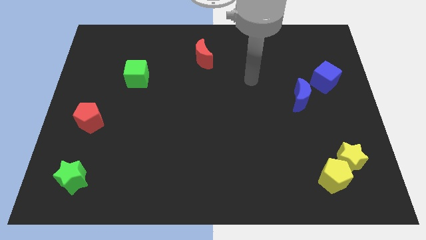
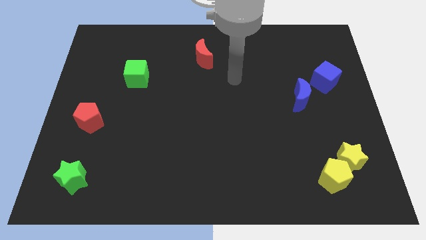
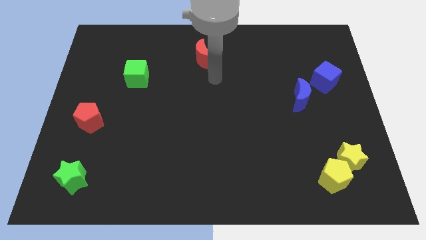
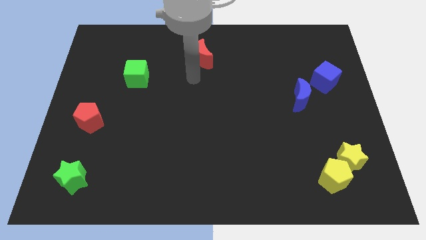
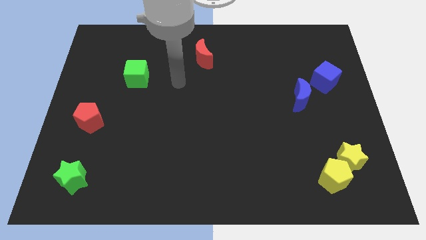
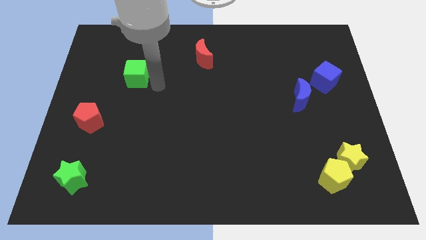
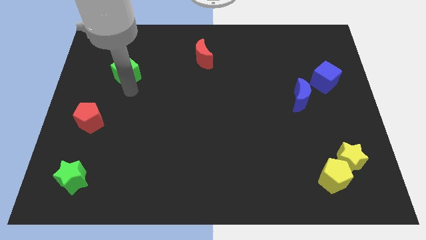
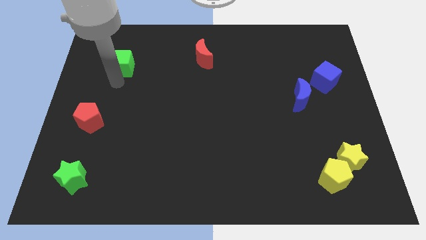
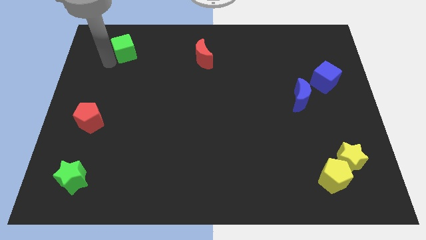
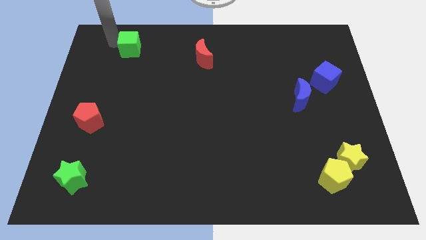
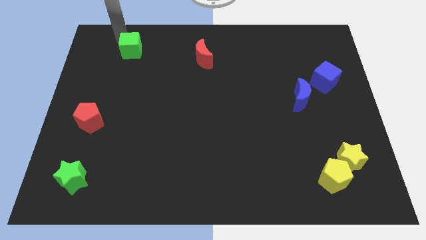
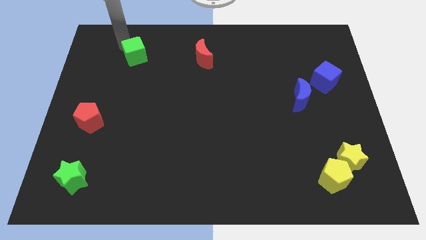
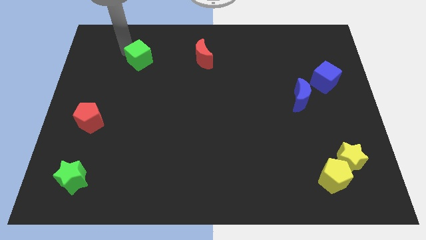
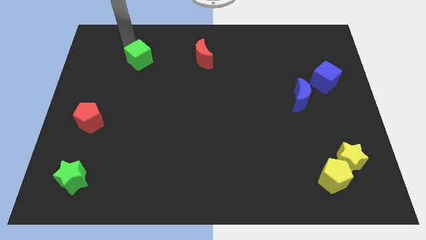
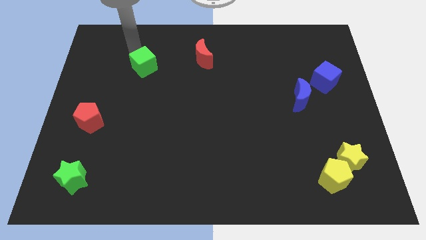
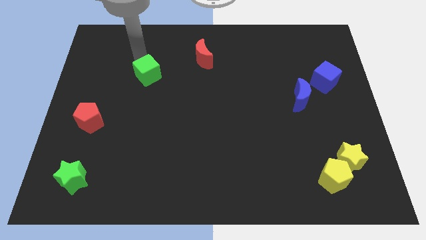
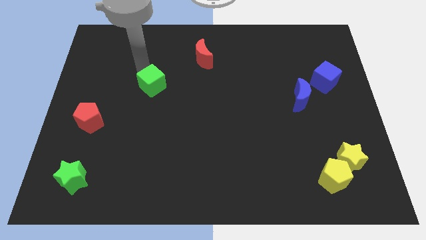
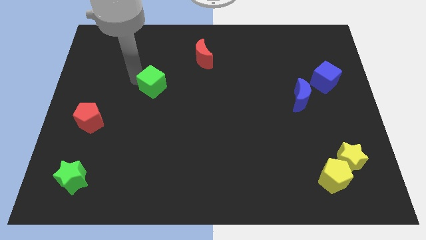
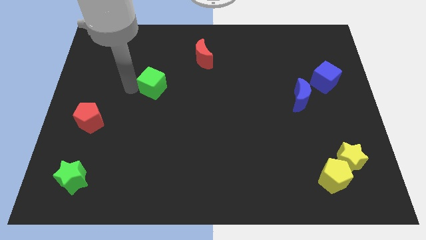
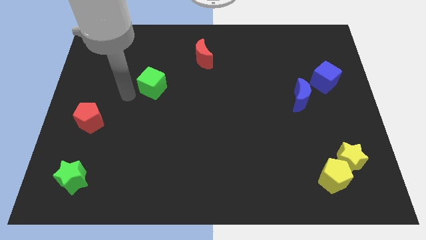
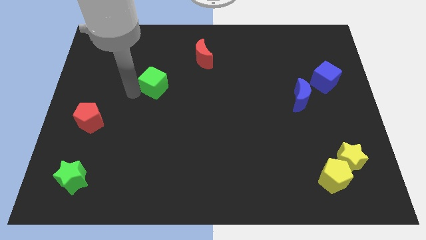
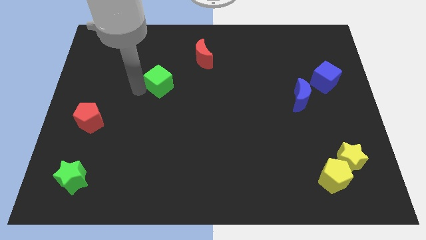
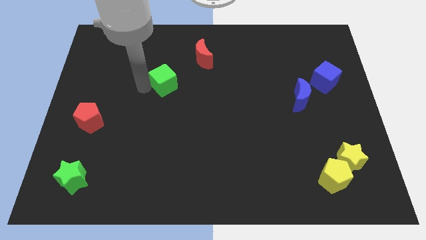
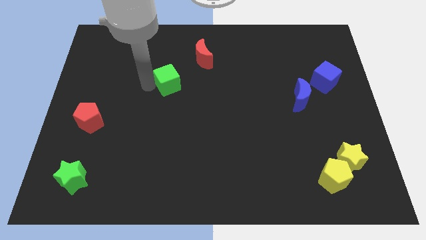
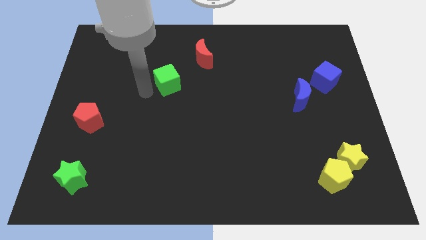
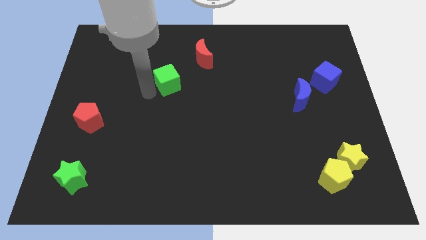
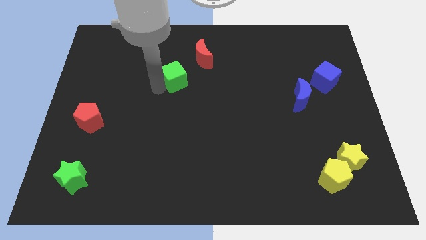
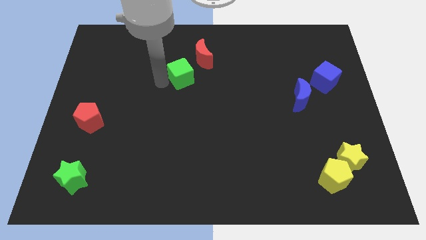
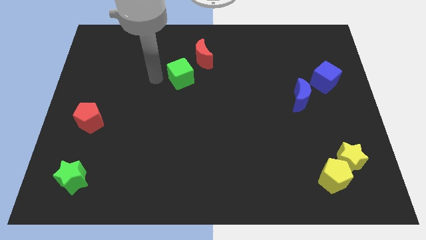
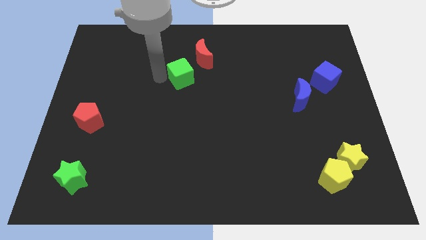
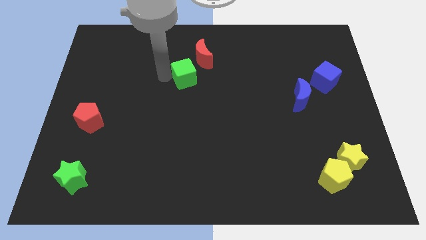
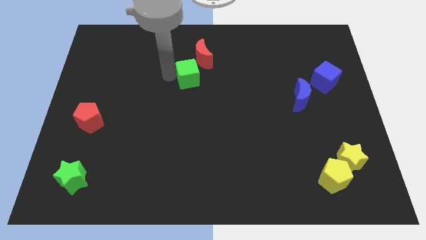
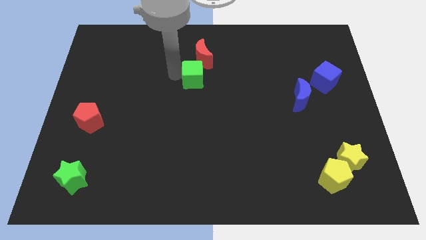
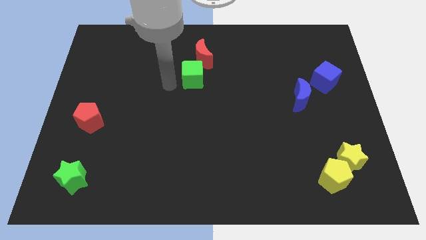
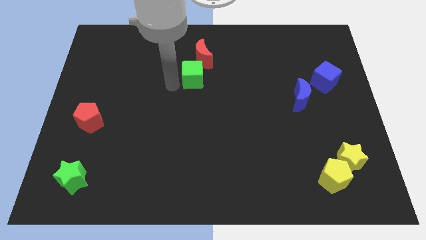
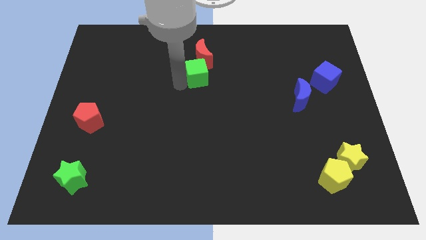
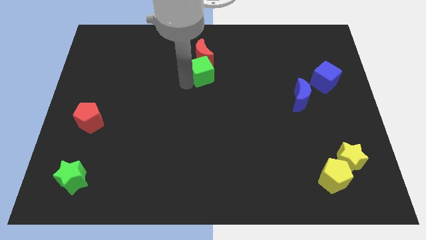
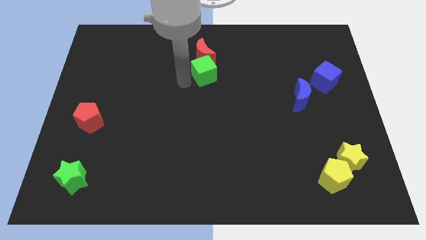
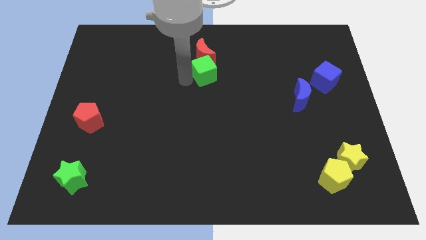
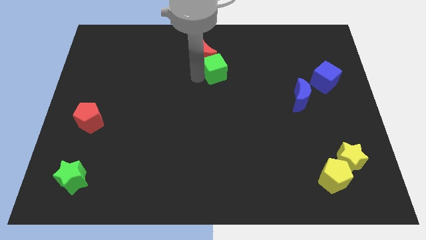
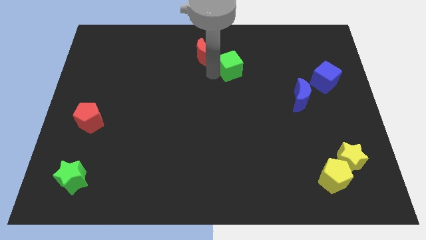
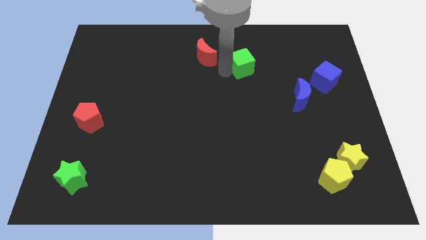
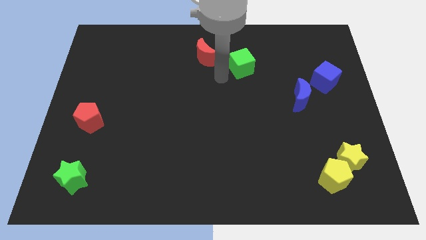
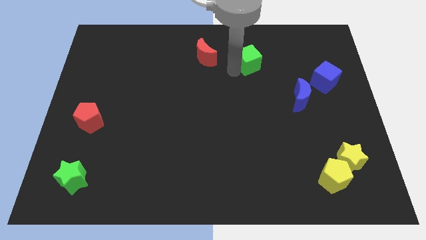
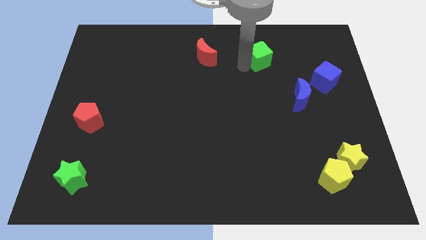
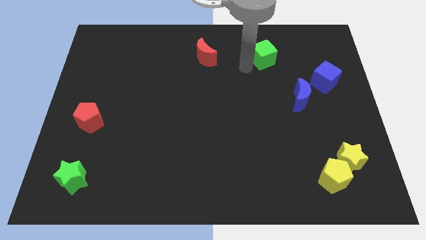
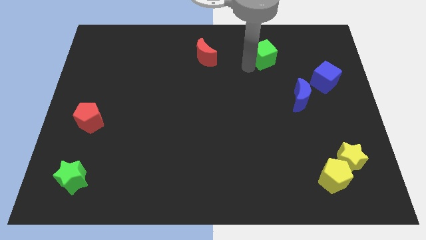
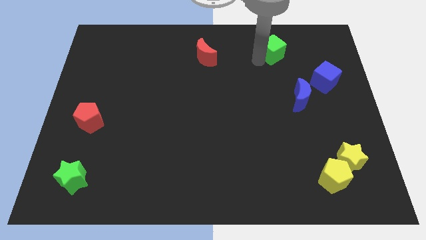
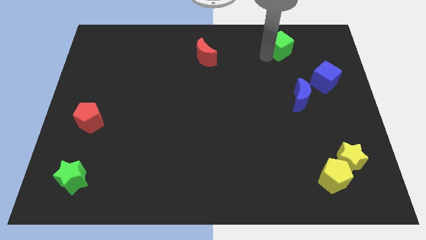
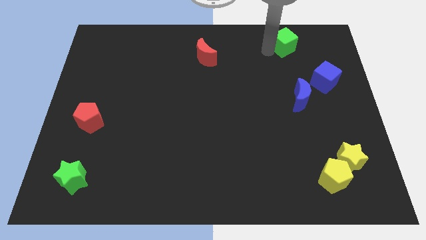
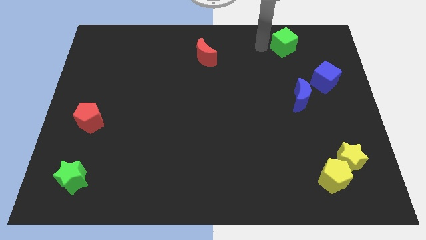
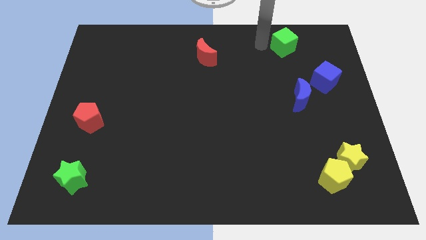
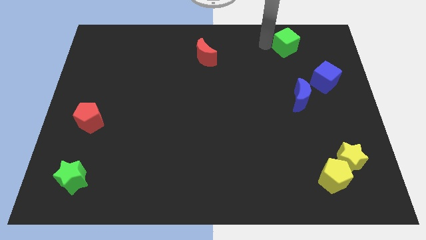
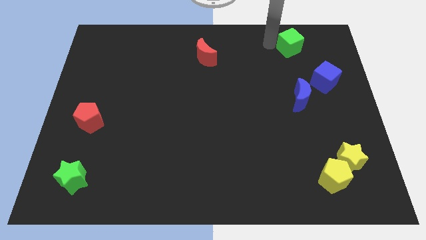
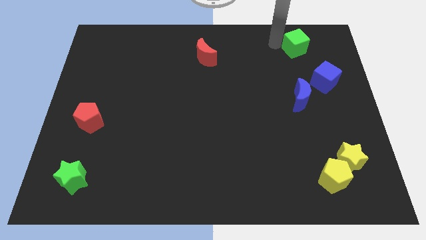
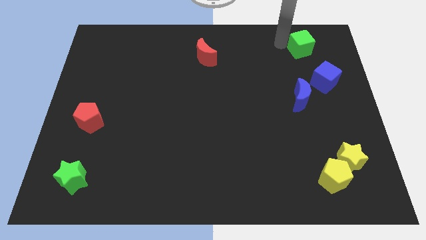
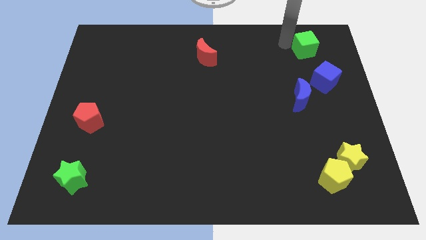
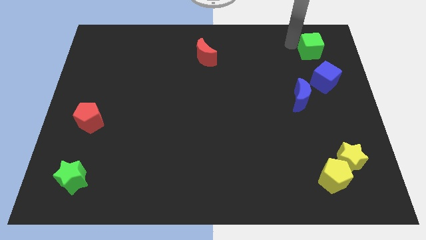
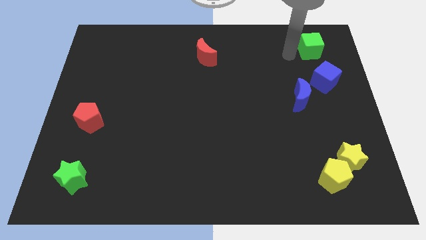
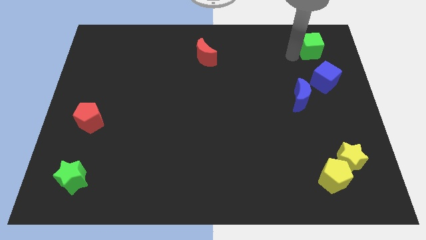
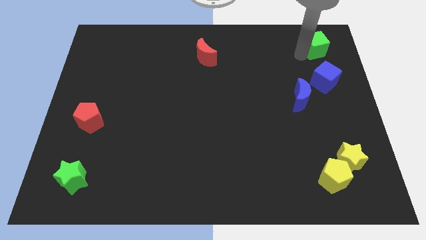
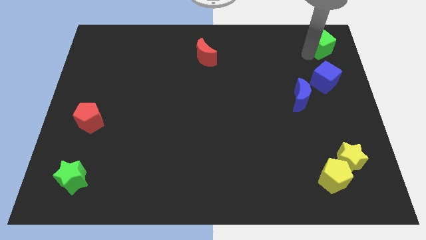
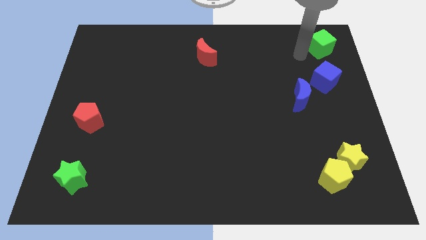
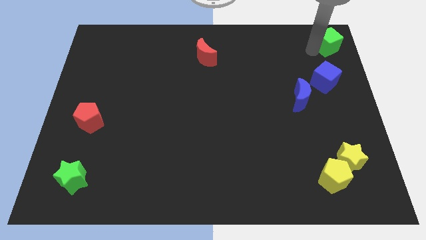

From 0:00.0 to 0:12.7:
push the green cube to the top right corner

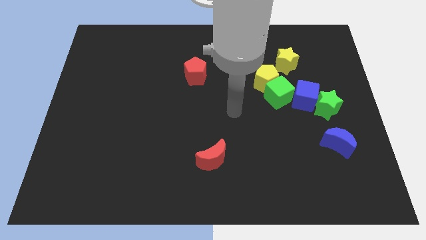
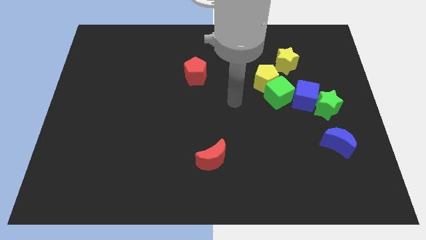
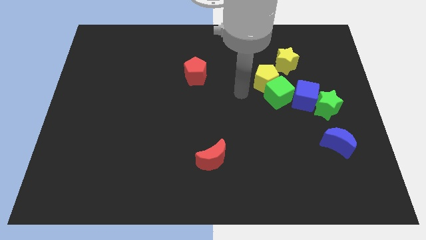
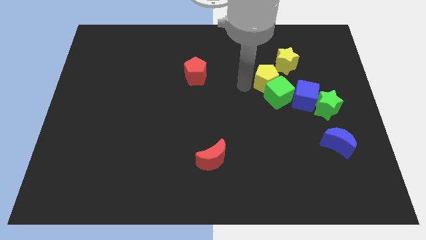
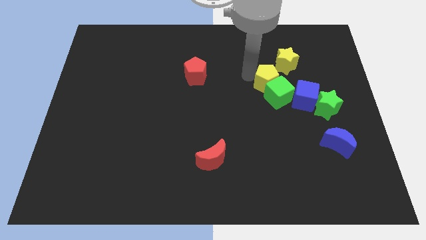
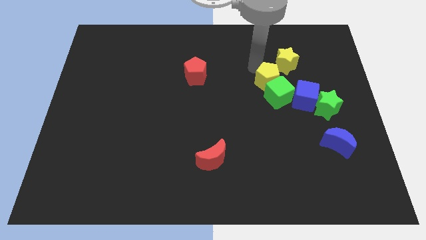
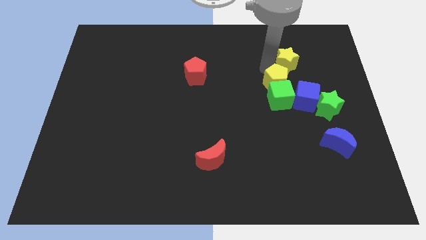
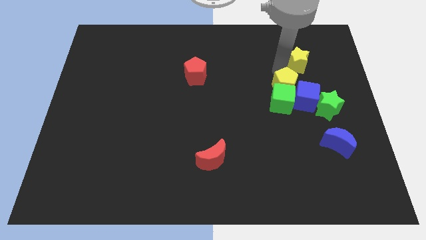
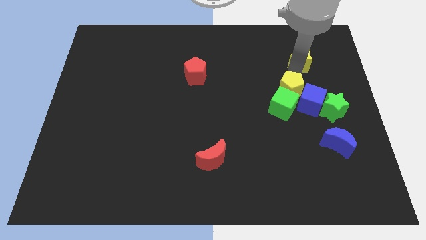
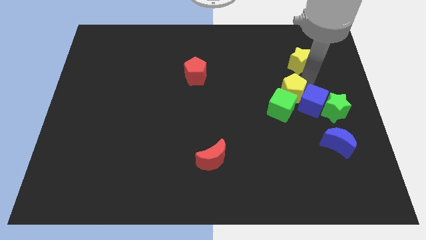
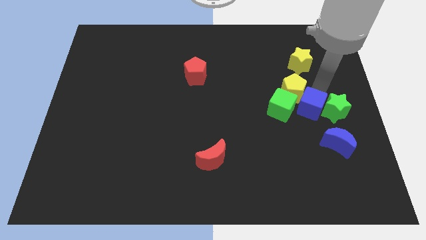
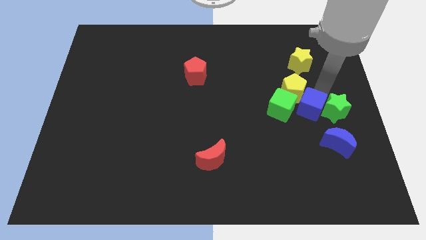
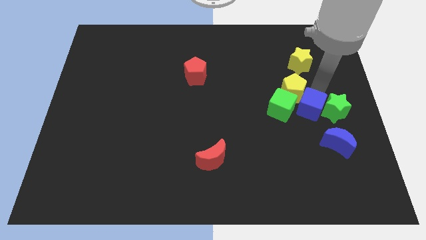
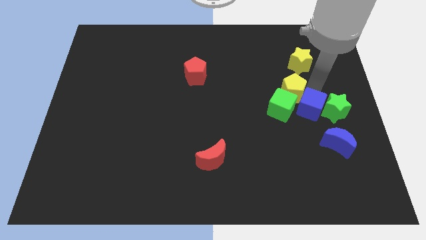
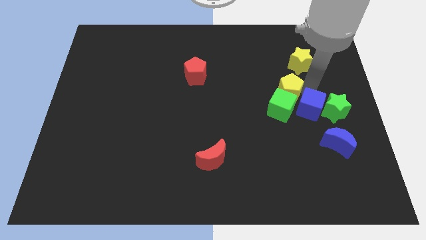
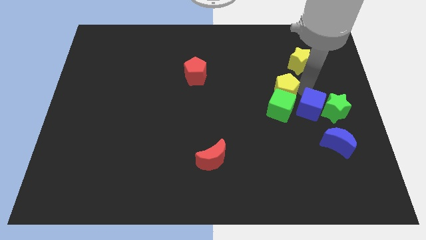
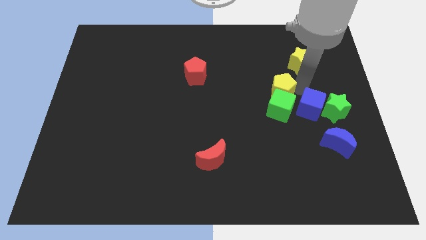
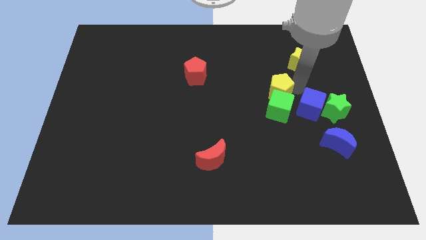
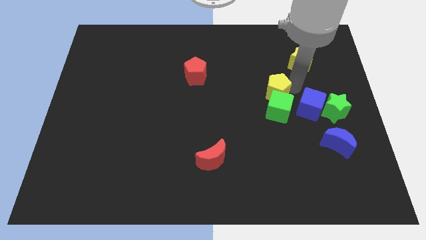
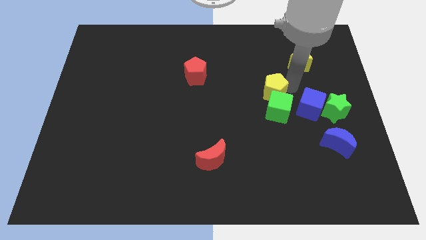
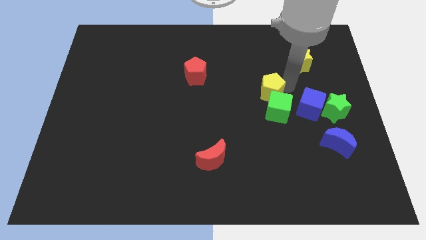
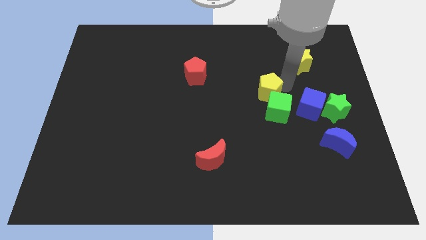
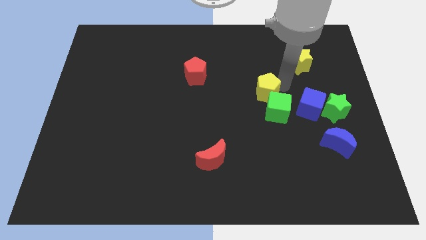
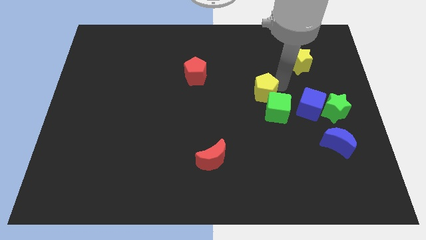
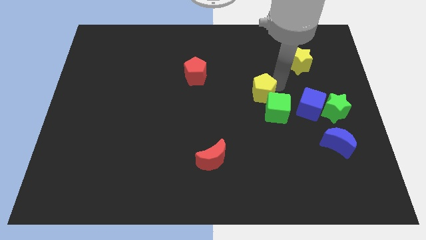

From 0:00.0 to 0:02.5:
slide the yellow pentagon to the middle of the board
